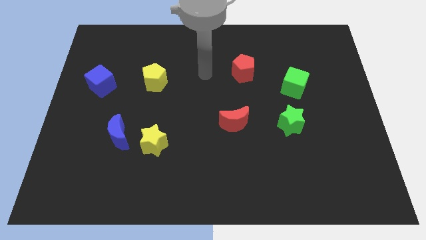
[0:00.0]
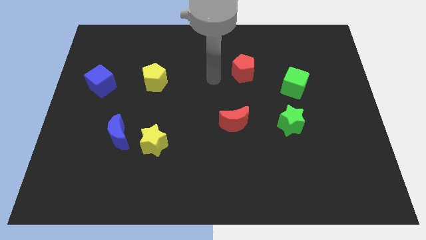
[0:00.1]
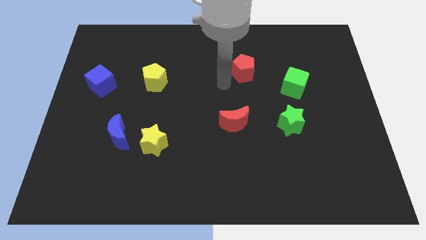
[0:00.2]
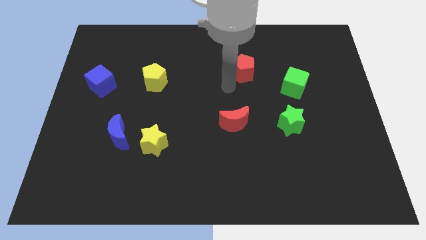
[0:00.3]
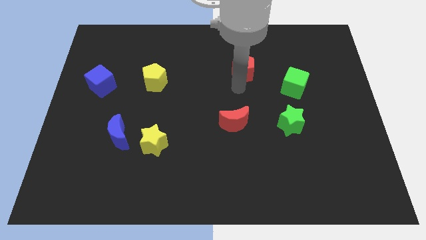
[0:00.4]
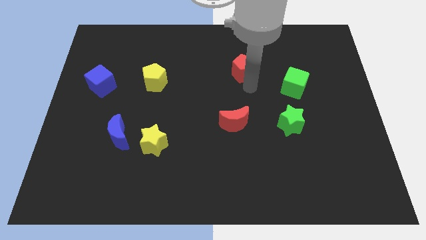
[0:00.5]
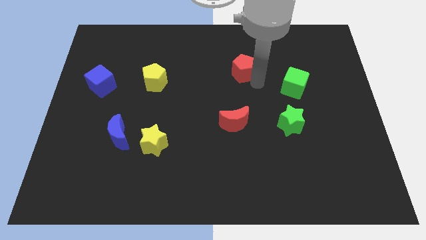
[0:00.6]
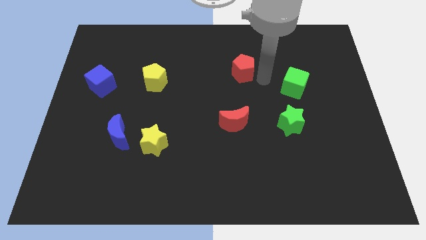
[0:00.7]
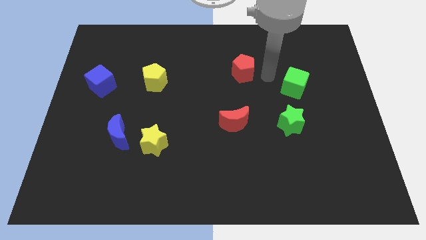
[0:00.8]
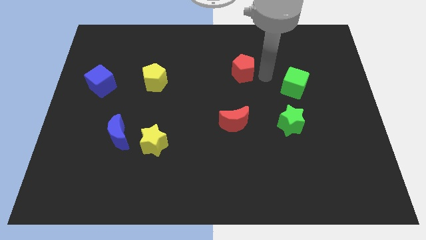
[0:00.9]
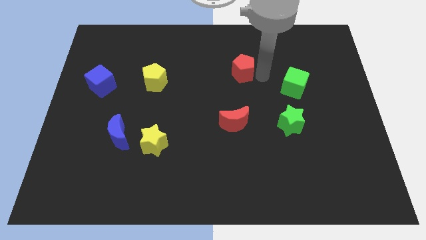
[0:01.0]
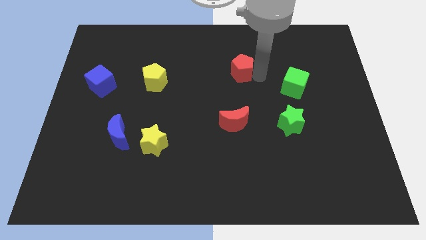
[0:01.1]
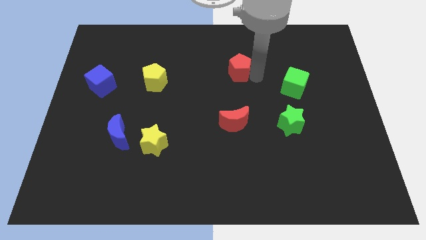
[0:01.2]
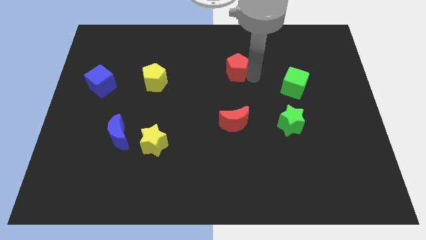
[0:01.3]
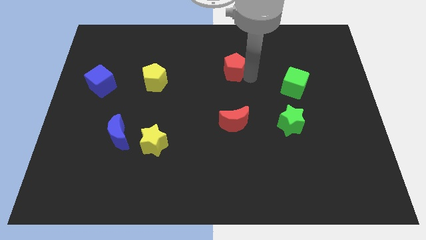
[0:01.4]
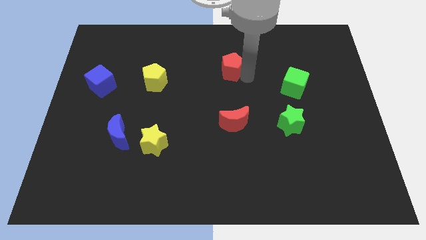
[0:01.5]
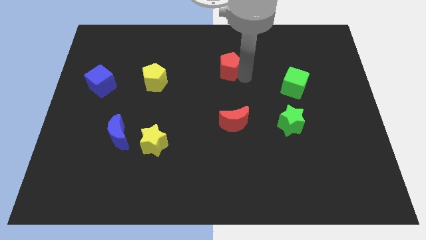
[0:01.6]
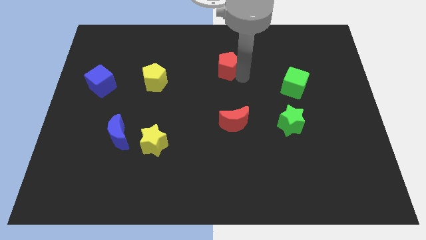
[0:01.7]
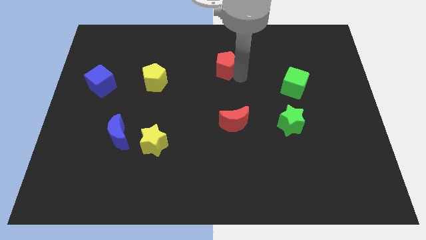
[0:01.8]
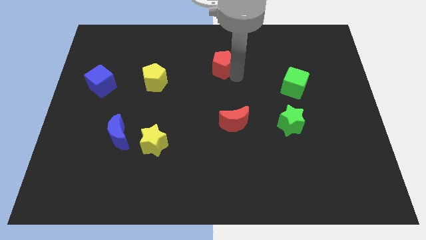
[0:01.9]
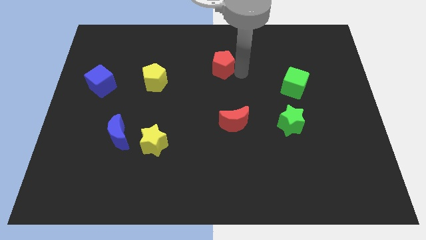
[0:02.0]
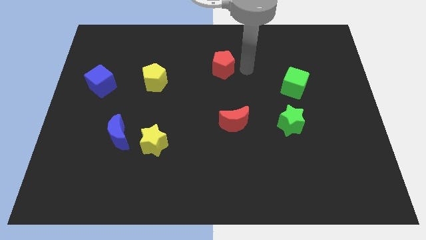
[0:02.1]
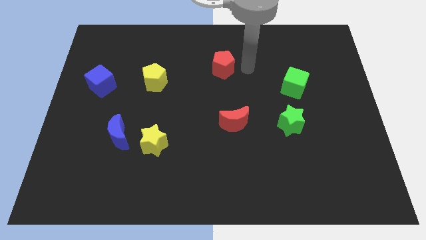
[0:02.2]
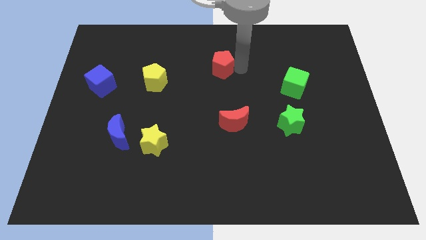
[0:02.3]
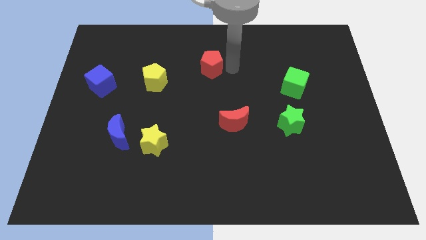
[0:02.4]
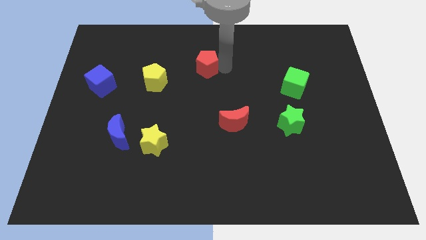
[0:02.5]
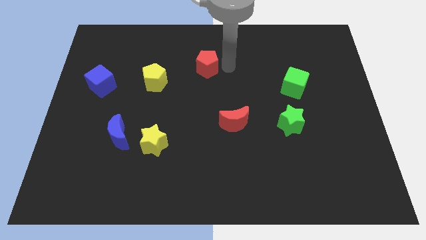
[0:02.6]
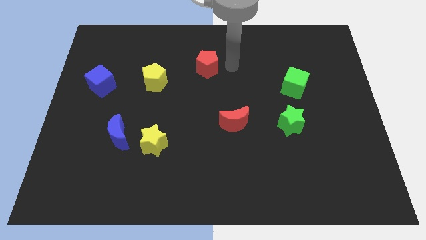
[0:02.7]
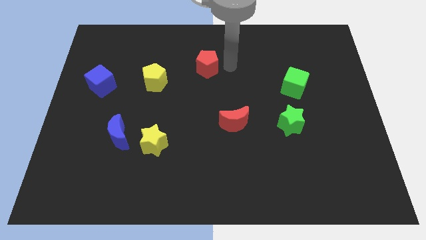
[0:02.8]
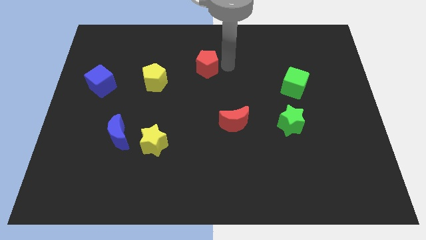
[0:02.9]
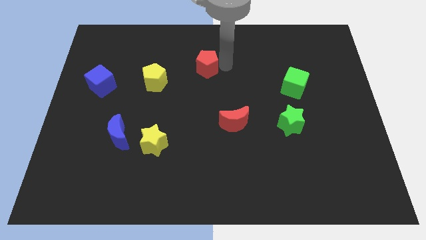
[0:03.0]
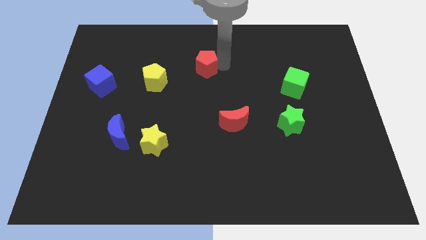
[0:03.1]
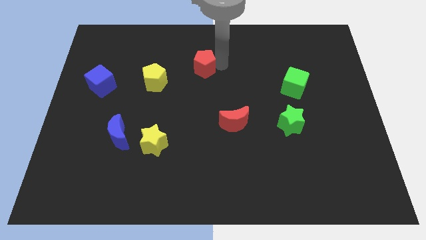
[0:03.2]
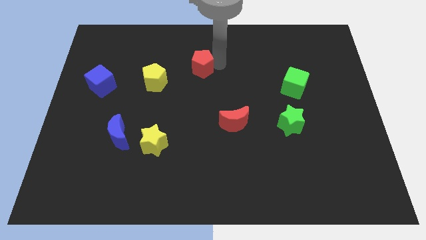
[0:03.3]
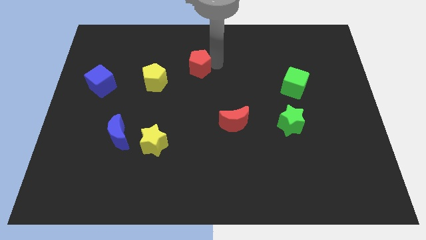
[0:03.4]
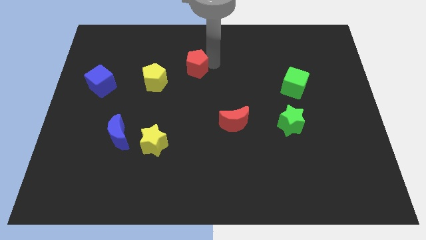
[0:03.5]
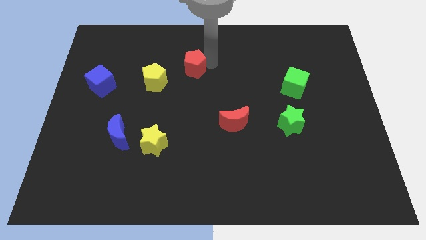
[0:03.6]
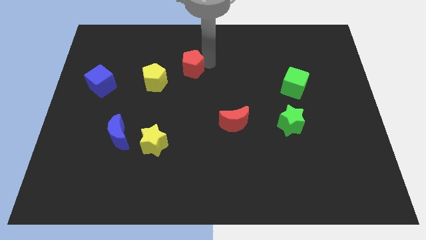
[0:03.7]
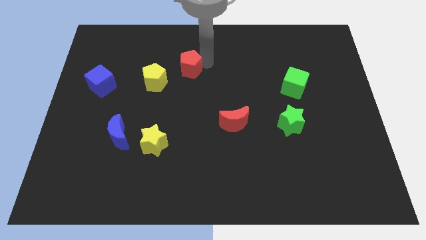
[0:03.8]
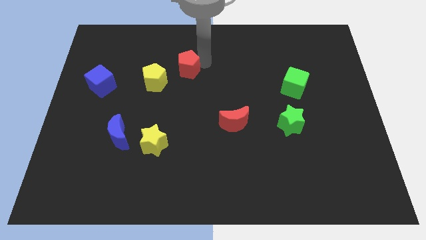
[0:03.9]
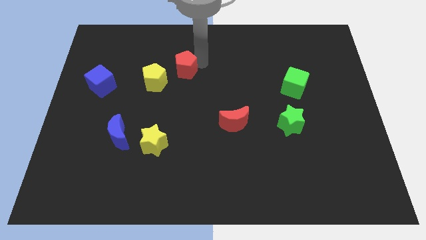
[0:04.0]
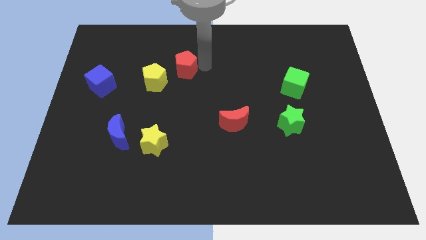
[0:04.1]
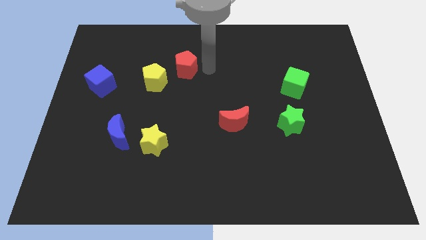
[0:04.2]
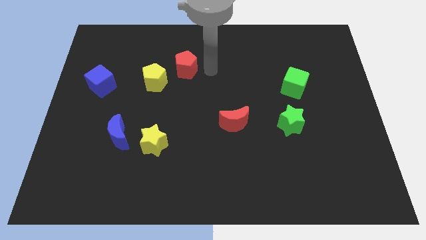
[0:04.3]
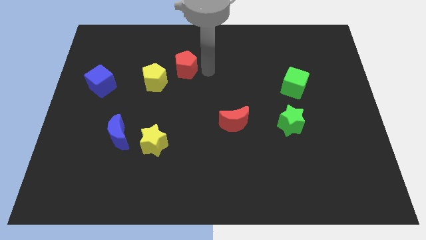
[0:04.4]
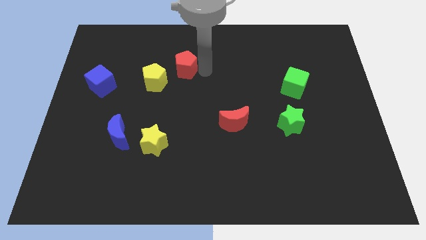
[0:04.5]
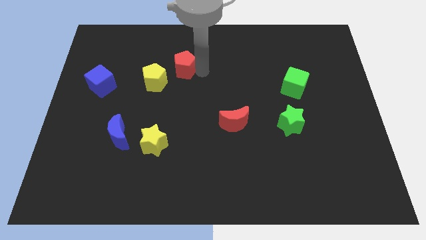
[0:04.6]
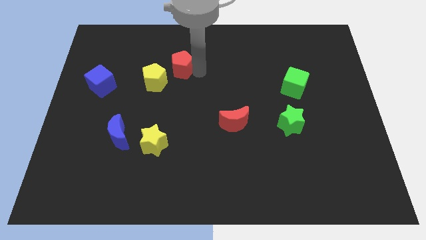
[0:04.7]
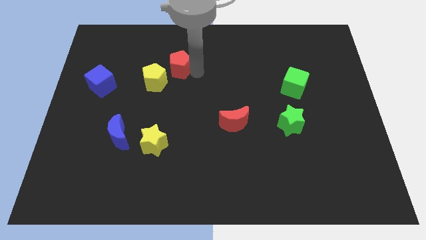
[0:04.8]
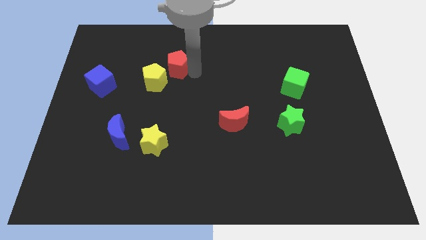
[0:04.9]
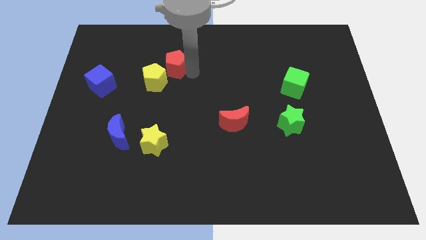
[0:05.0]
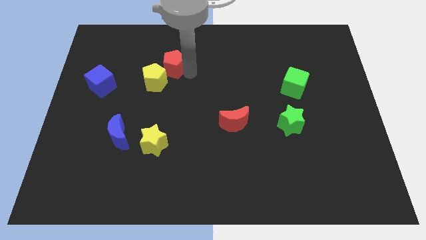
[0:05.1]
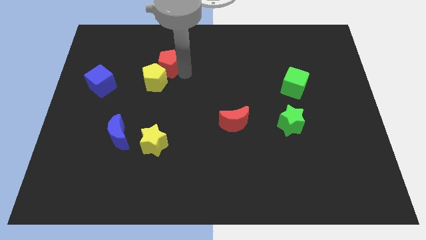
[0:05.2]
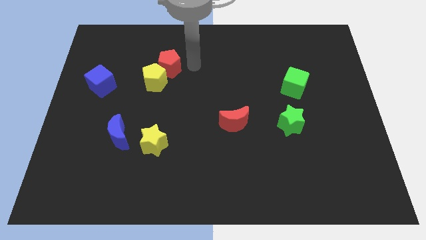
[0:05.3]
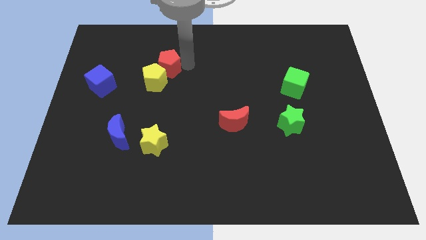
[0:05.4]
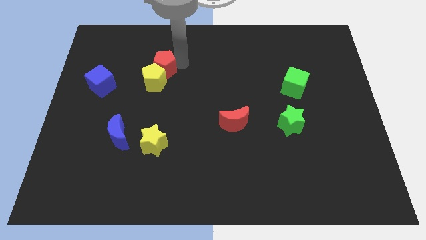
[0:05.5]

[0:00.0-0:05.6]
push the red pentagon left

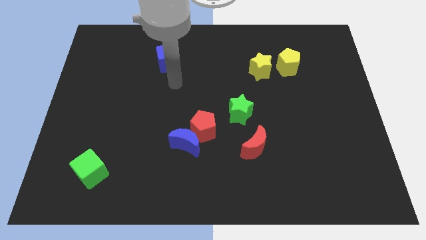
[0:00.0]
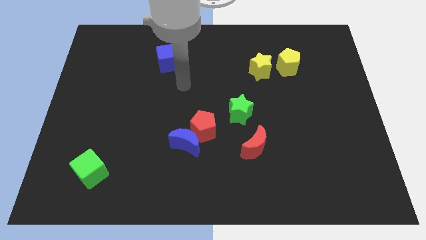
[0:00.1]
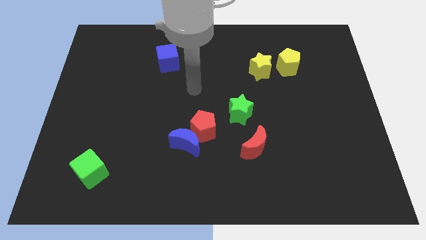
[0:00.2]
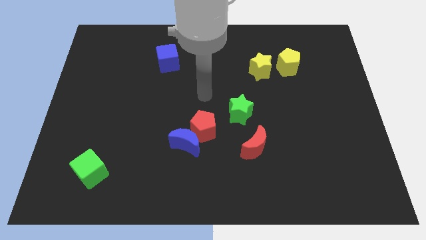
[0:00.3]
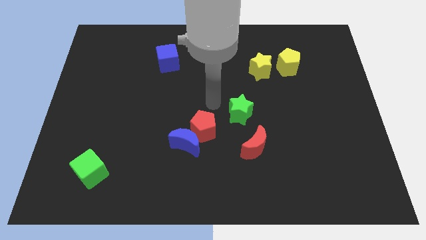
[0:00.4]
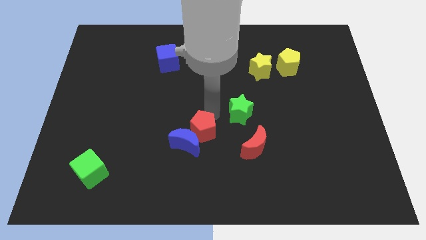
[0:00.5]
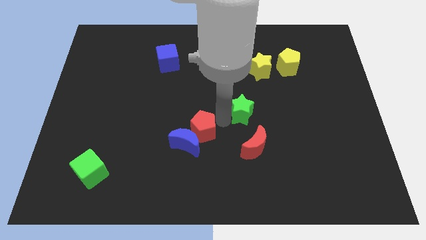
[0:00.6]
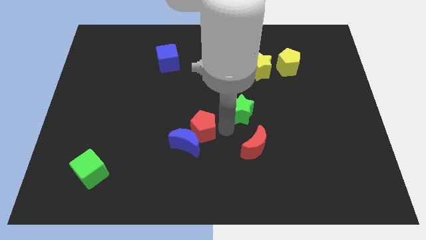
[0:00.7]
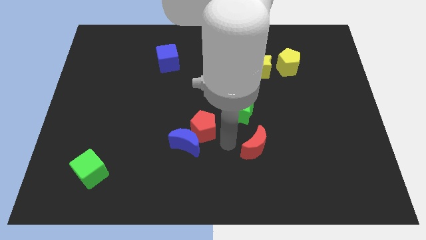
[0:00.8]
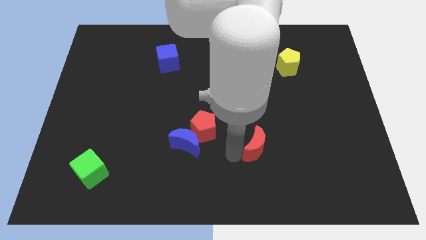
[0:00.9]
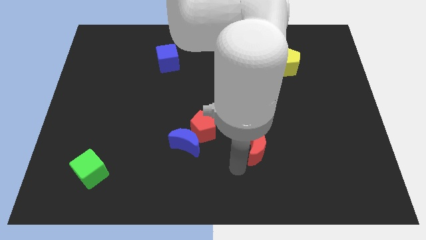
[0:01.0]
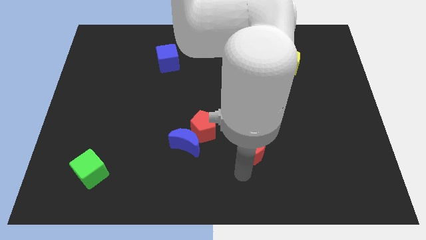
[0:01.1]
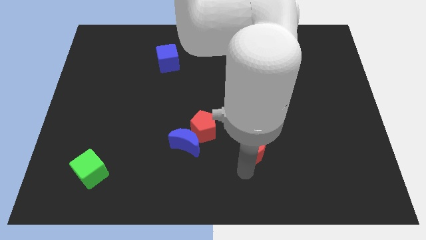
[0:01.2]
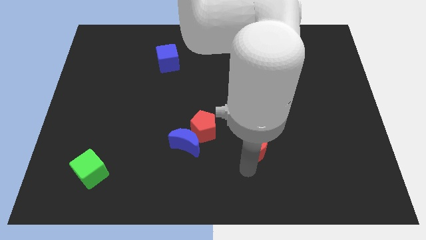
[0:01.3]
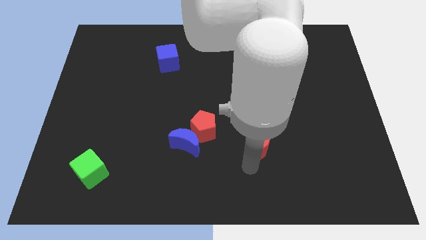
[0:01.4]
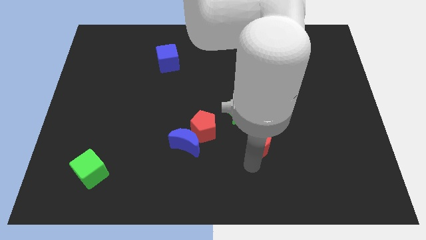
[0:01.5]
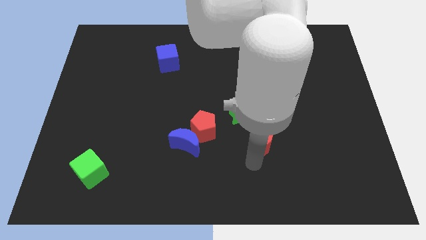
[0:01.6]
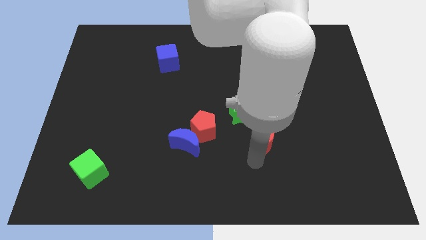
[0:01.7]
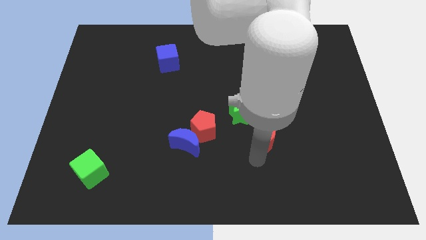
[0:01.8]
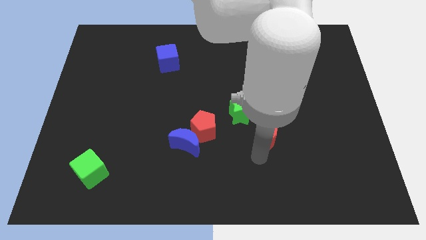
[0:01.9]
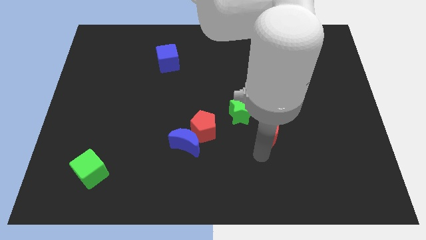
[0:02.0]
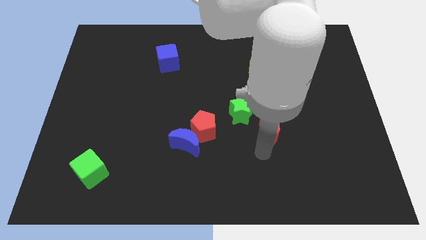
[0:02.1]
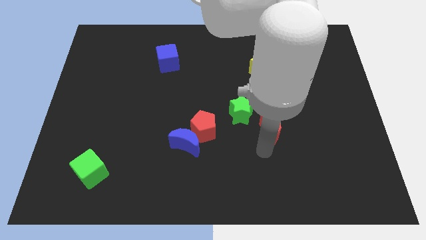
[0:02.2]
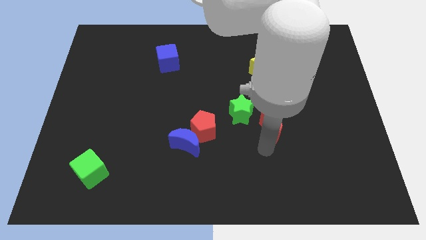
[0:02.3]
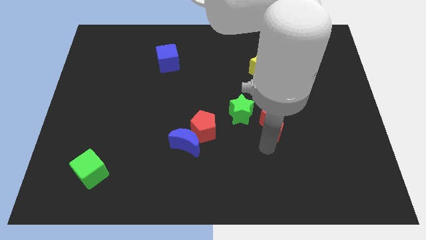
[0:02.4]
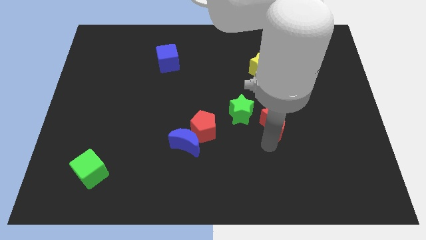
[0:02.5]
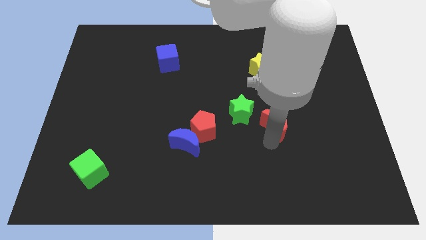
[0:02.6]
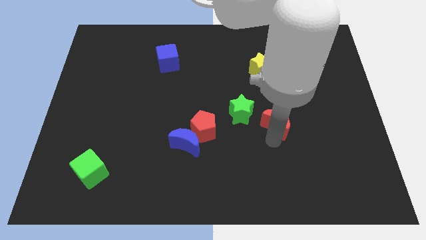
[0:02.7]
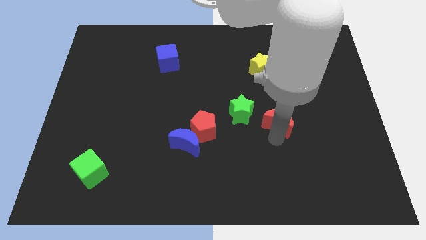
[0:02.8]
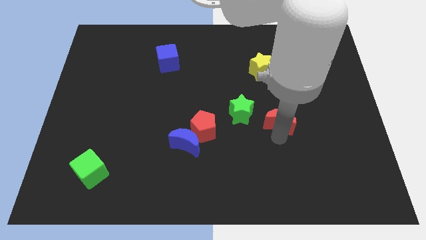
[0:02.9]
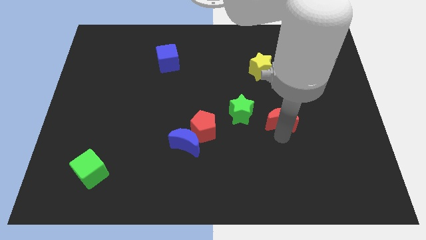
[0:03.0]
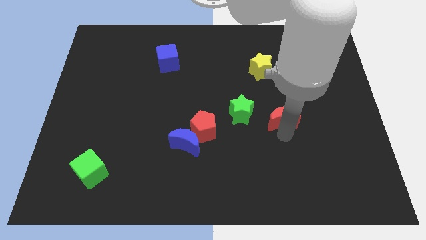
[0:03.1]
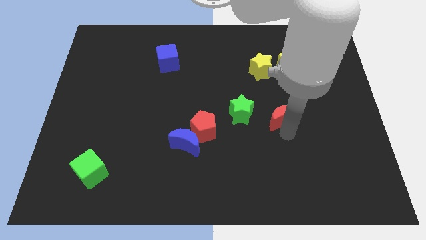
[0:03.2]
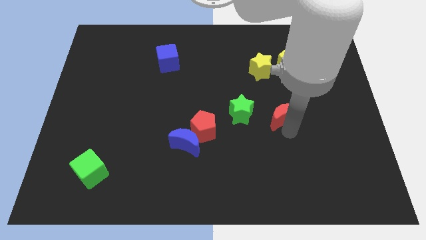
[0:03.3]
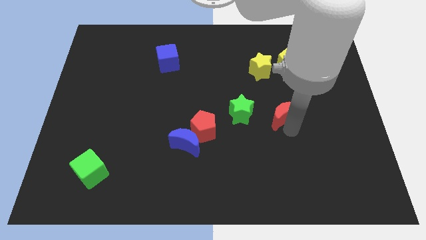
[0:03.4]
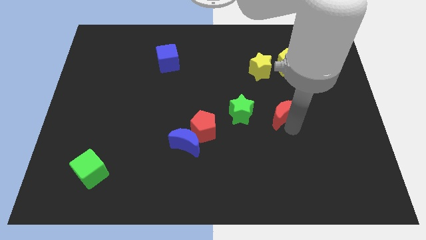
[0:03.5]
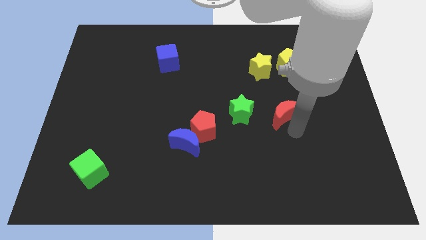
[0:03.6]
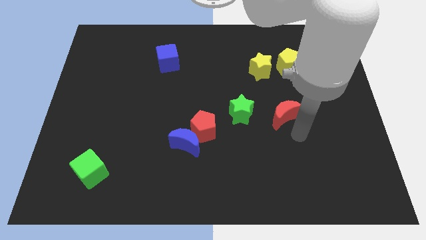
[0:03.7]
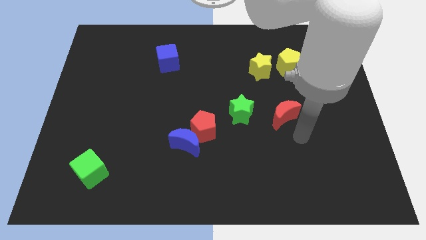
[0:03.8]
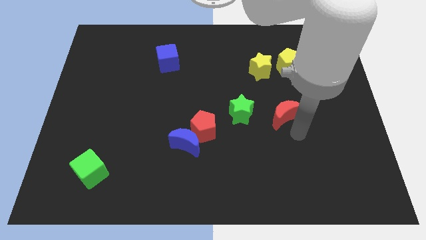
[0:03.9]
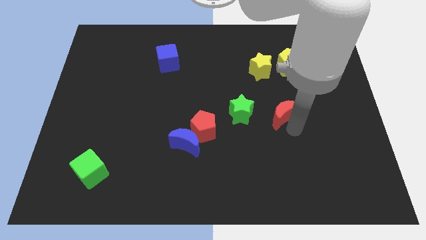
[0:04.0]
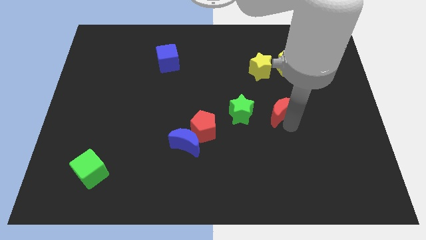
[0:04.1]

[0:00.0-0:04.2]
move the red moon upwards a little
